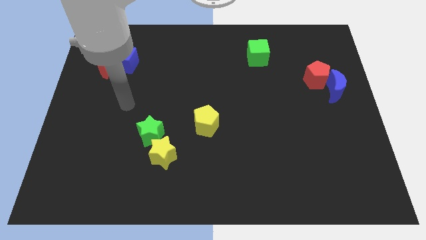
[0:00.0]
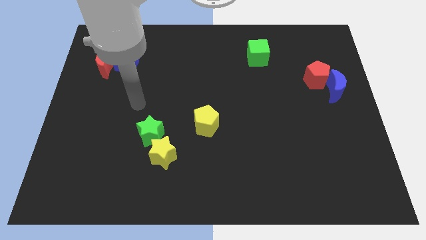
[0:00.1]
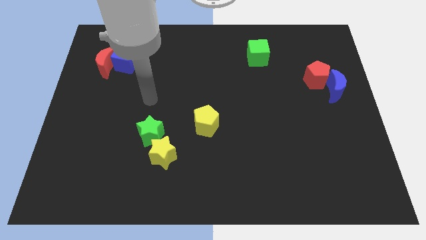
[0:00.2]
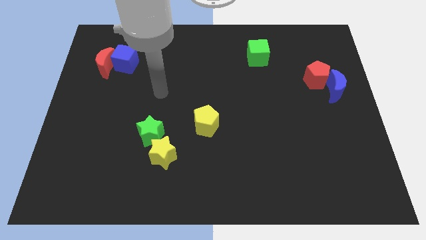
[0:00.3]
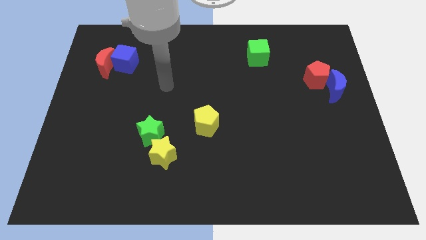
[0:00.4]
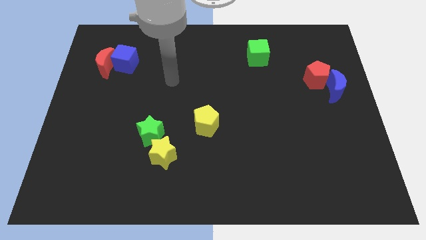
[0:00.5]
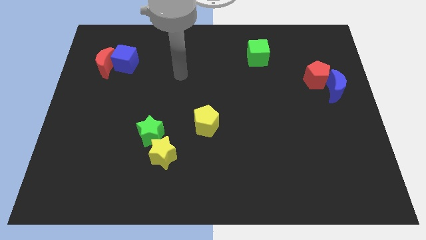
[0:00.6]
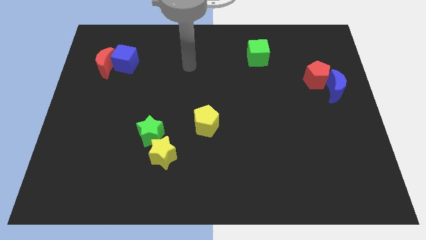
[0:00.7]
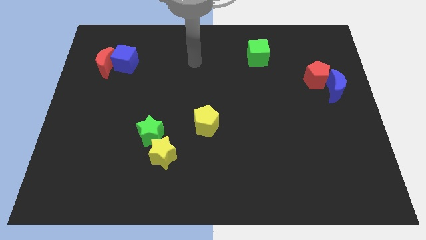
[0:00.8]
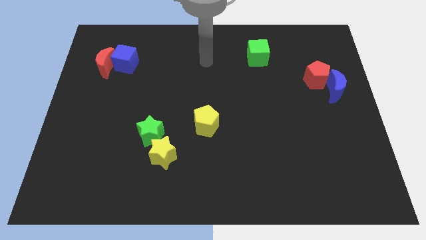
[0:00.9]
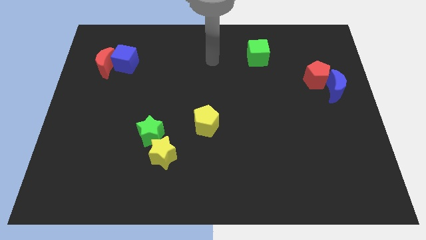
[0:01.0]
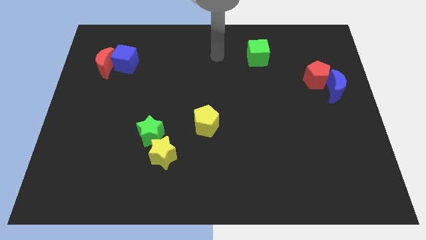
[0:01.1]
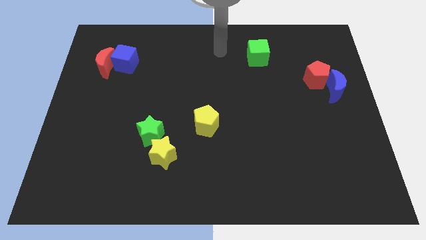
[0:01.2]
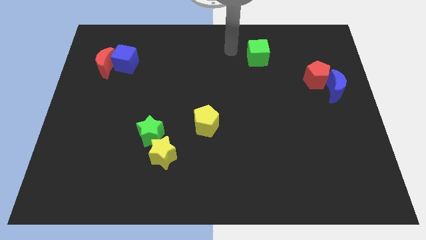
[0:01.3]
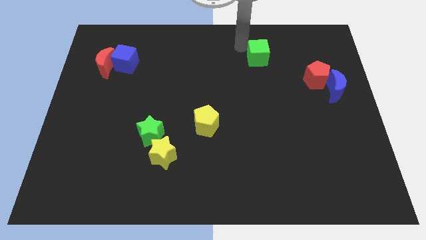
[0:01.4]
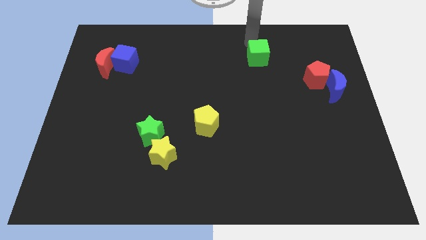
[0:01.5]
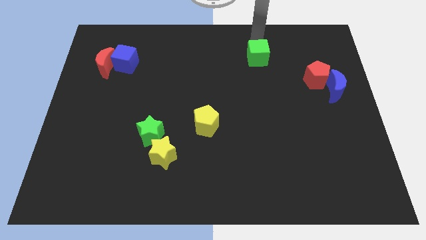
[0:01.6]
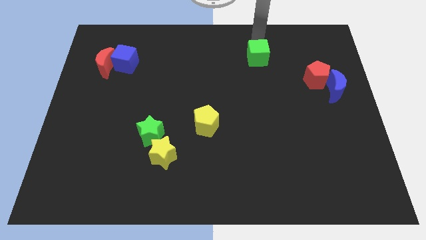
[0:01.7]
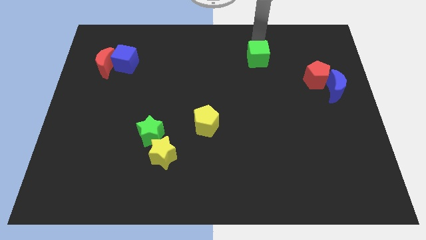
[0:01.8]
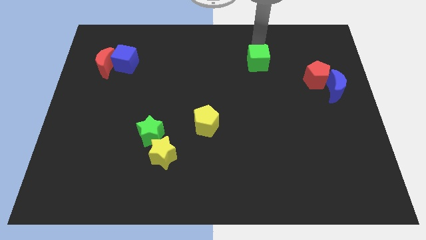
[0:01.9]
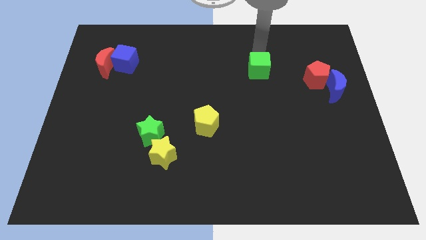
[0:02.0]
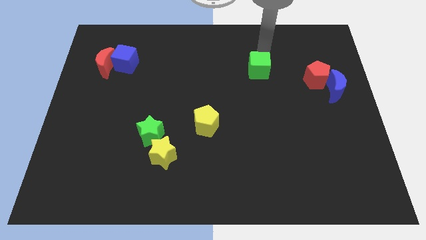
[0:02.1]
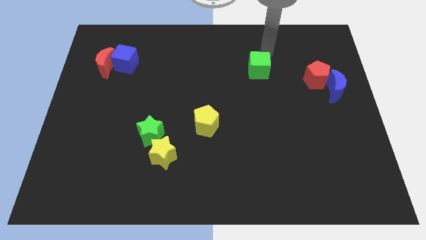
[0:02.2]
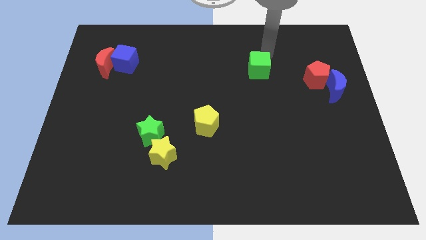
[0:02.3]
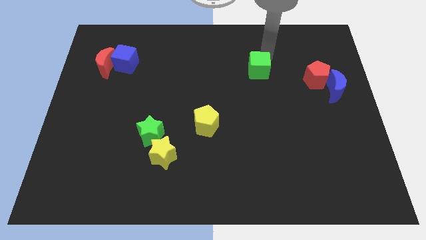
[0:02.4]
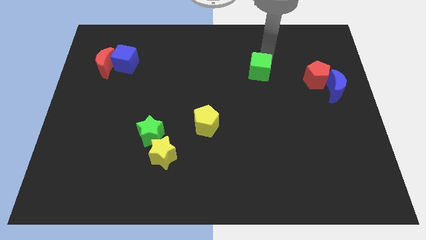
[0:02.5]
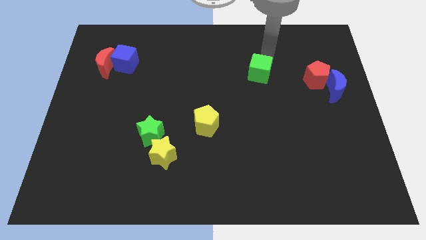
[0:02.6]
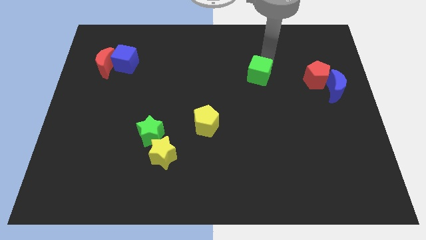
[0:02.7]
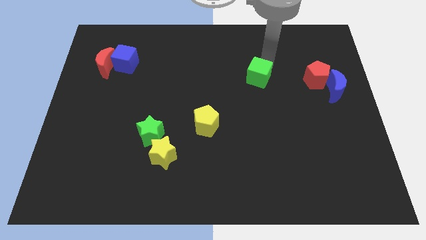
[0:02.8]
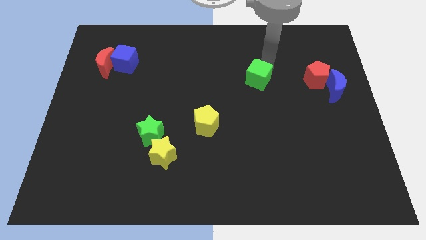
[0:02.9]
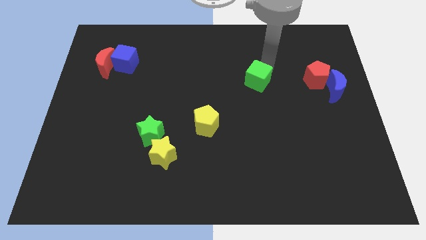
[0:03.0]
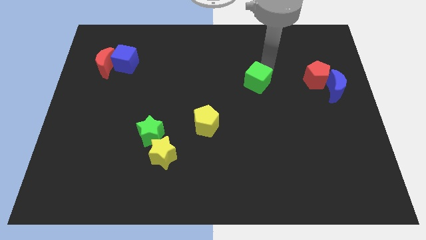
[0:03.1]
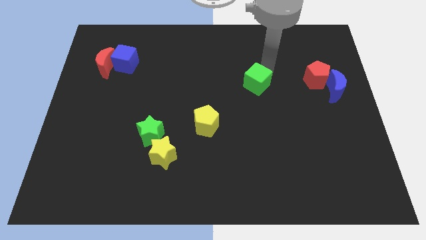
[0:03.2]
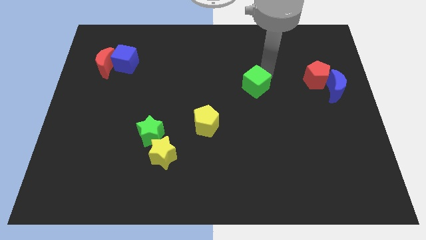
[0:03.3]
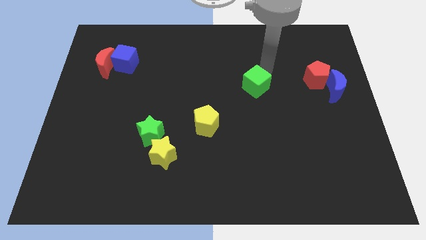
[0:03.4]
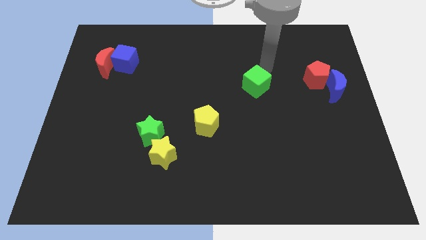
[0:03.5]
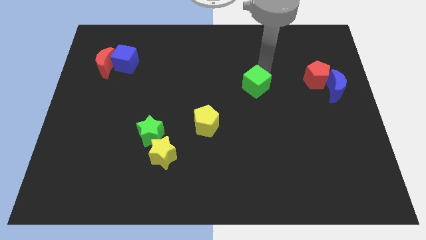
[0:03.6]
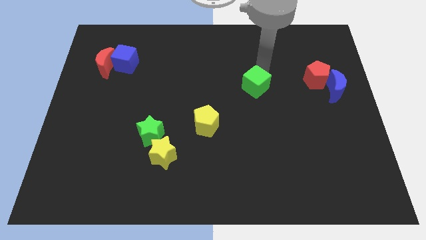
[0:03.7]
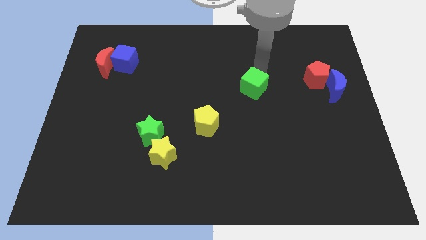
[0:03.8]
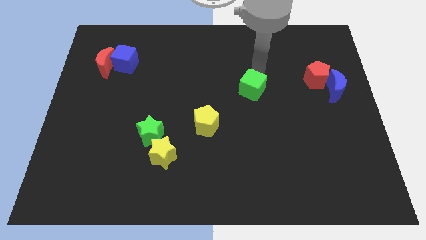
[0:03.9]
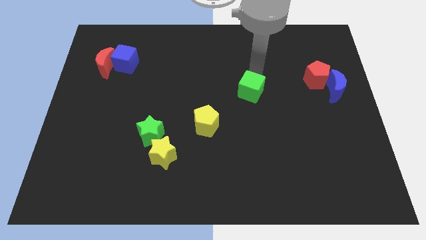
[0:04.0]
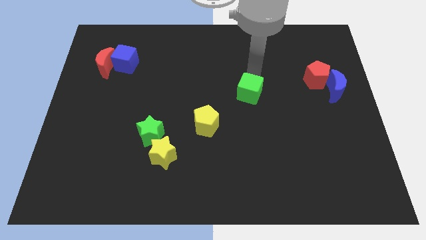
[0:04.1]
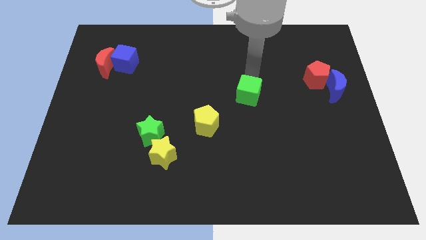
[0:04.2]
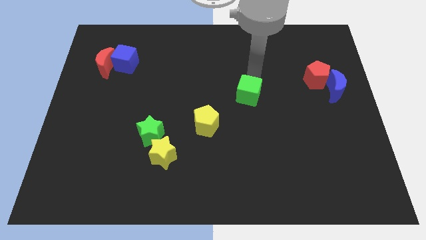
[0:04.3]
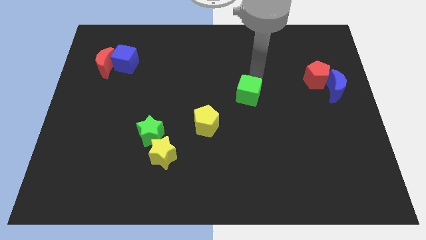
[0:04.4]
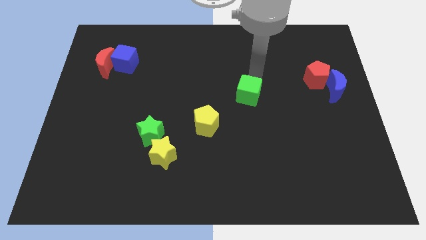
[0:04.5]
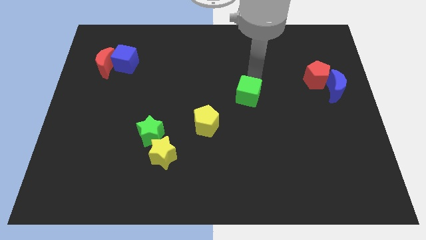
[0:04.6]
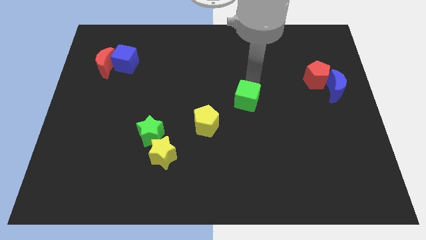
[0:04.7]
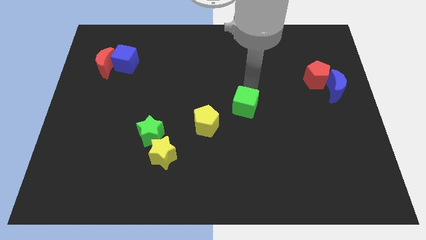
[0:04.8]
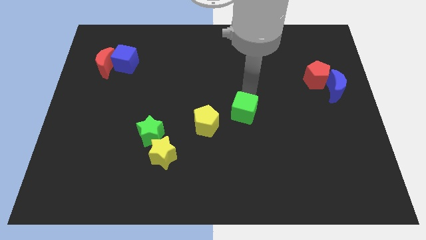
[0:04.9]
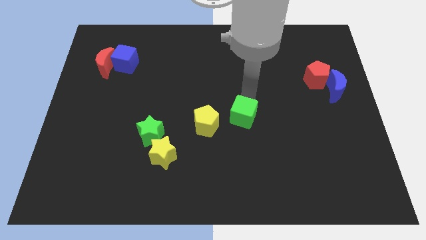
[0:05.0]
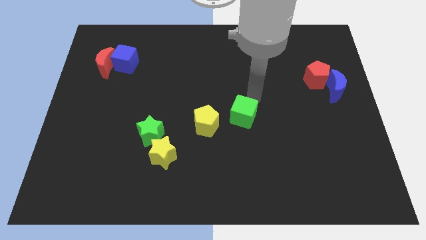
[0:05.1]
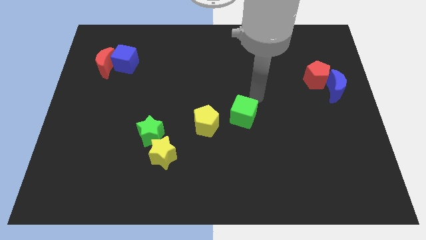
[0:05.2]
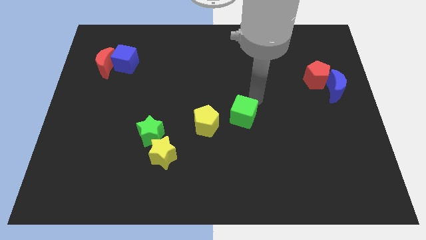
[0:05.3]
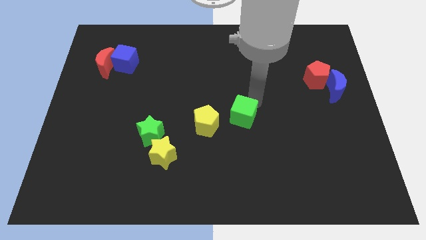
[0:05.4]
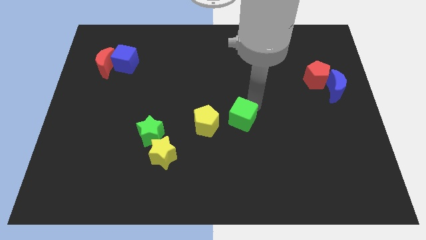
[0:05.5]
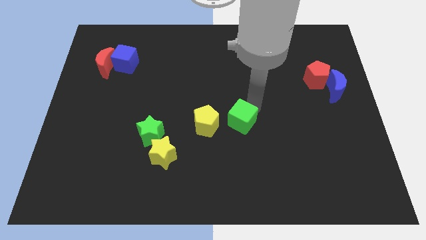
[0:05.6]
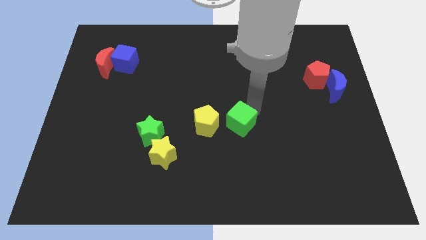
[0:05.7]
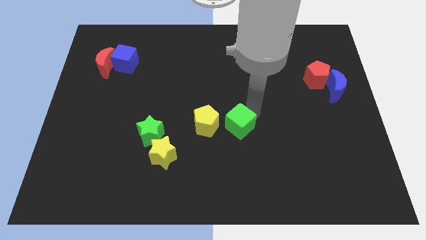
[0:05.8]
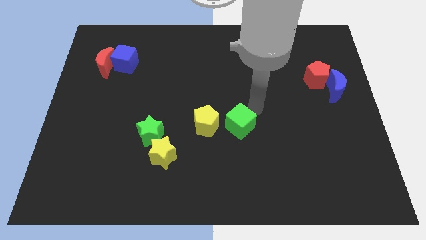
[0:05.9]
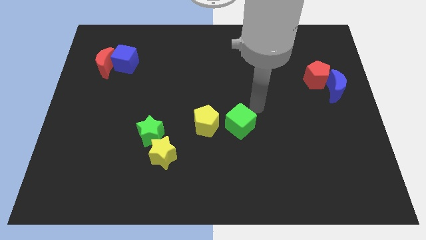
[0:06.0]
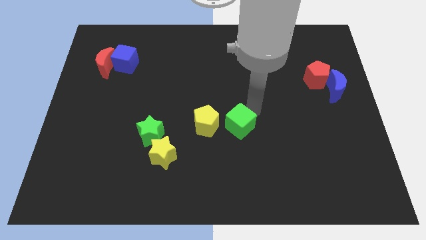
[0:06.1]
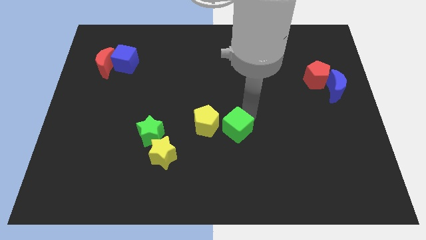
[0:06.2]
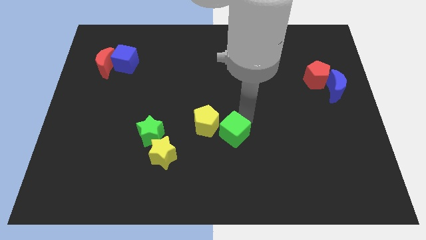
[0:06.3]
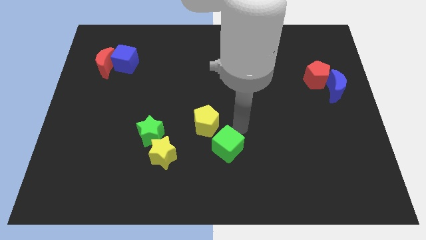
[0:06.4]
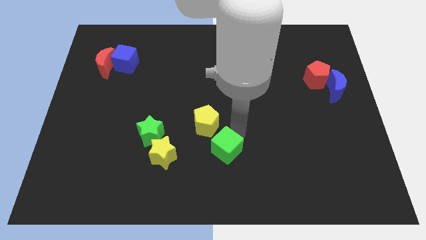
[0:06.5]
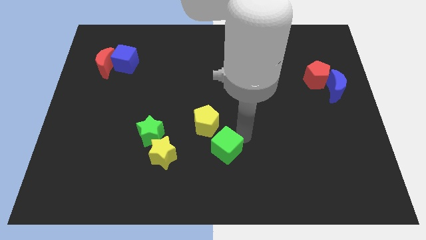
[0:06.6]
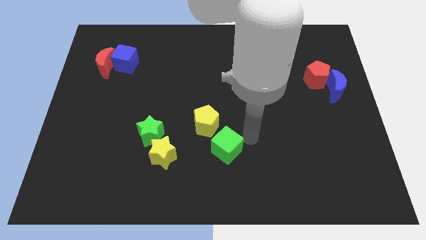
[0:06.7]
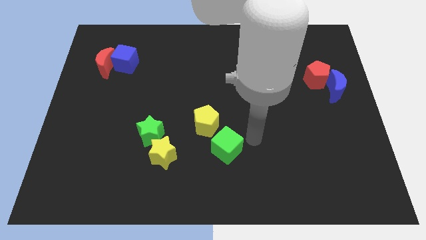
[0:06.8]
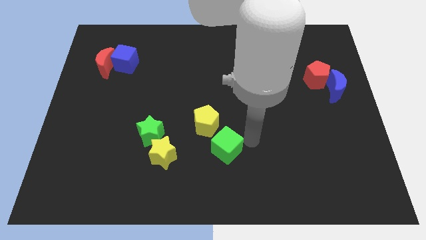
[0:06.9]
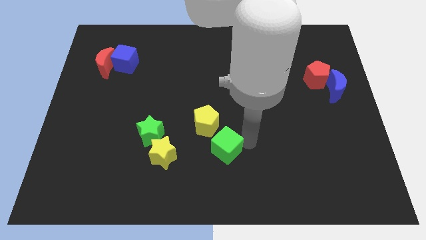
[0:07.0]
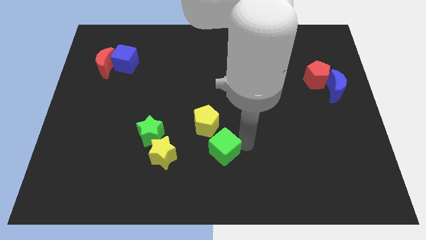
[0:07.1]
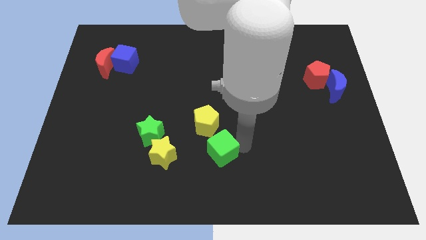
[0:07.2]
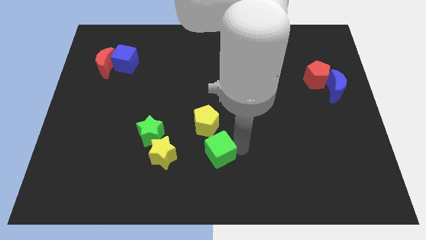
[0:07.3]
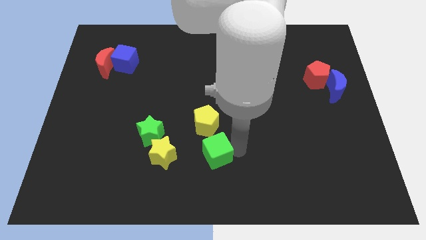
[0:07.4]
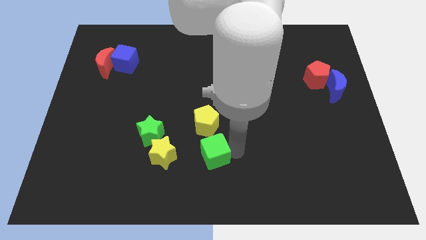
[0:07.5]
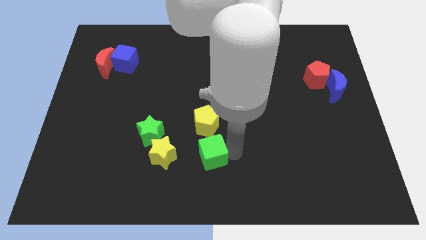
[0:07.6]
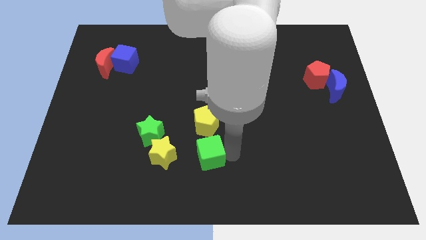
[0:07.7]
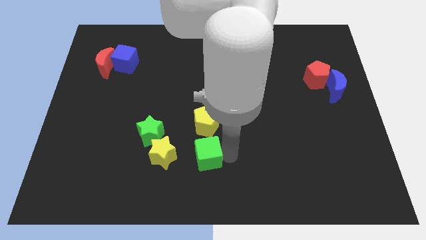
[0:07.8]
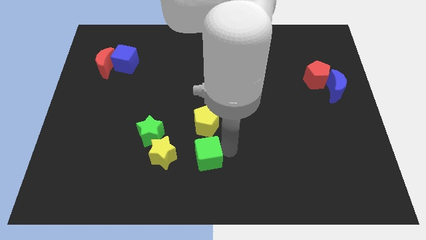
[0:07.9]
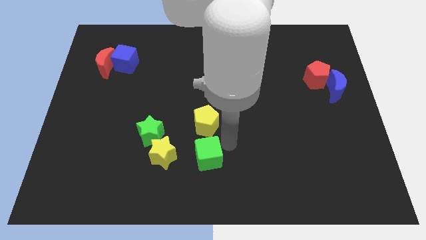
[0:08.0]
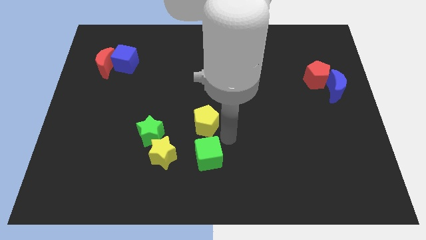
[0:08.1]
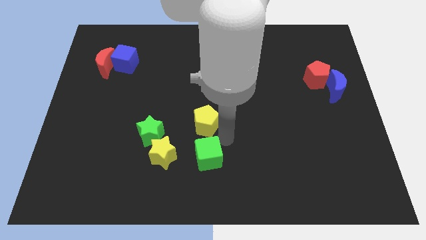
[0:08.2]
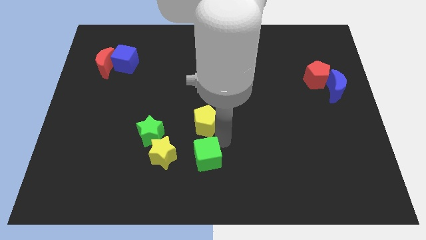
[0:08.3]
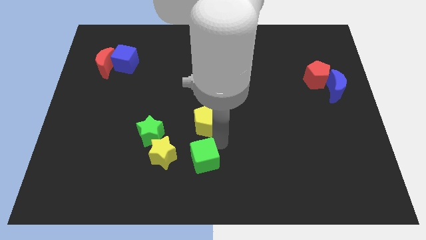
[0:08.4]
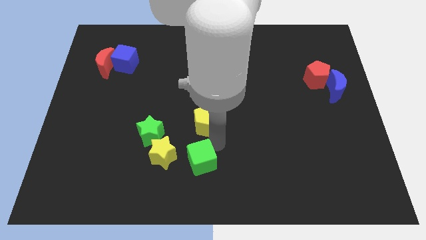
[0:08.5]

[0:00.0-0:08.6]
put the green cube diagonally down and to the right of the yellow star
